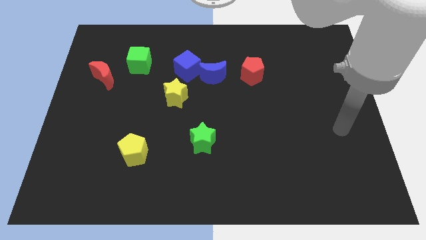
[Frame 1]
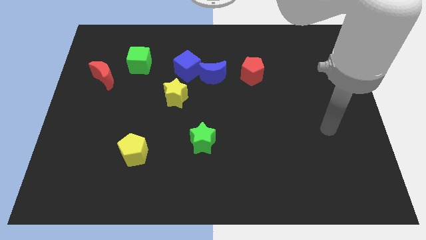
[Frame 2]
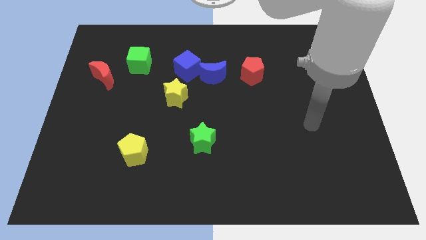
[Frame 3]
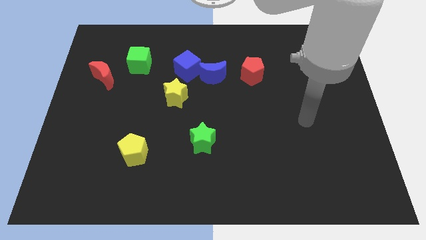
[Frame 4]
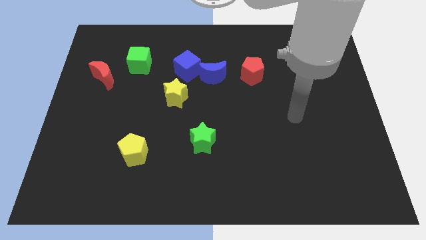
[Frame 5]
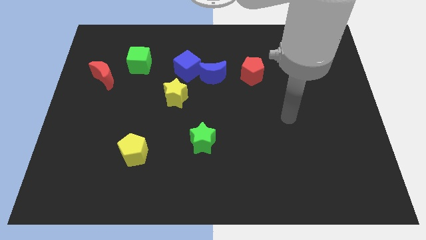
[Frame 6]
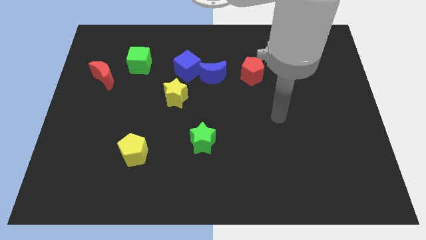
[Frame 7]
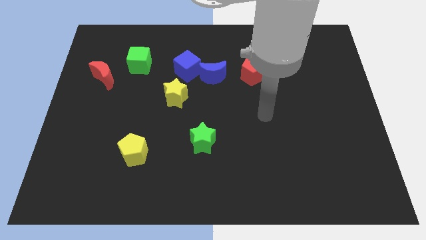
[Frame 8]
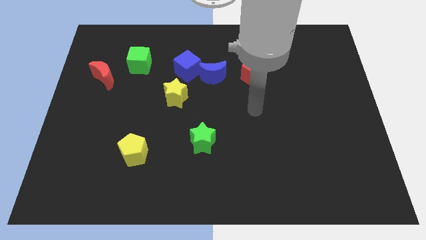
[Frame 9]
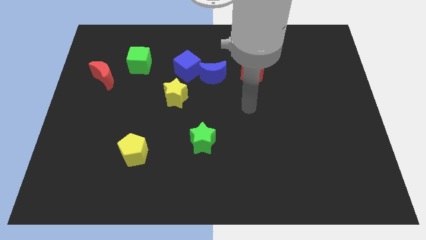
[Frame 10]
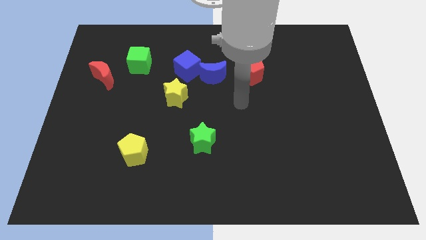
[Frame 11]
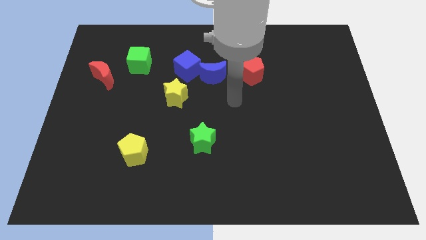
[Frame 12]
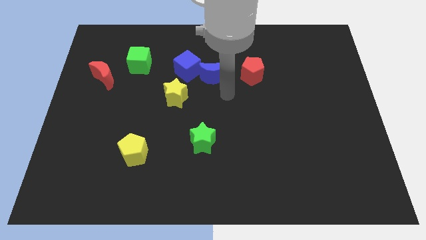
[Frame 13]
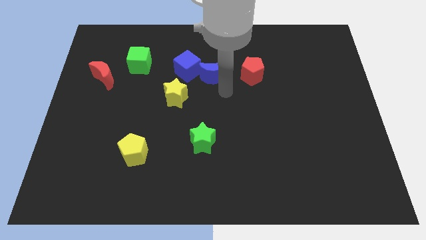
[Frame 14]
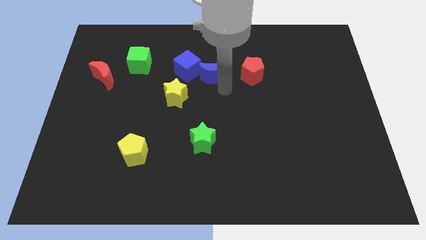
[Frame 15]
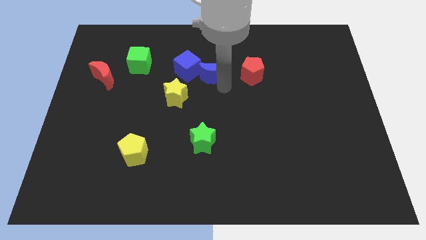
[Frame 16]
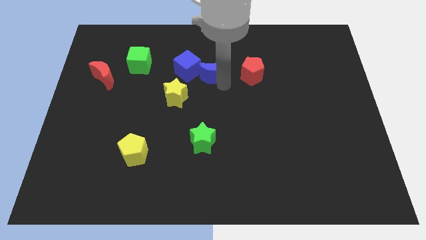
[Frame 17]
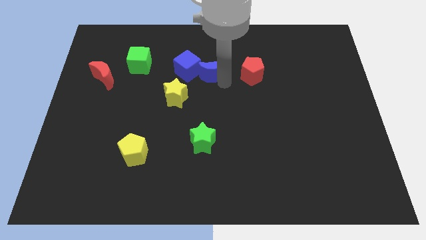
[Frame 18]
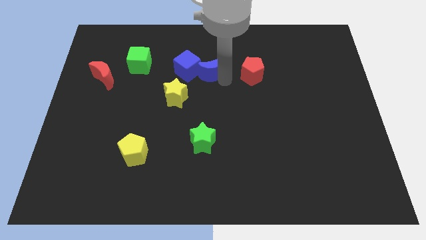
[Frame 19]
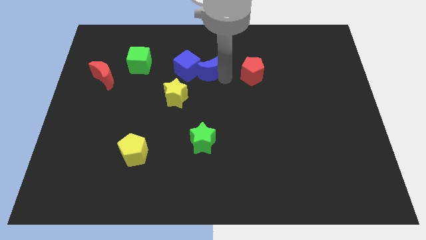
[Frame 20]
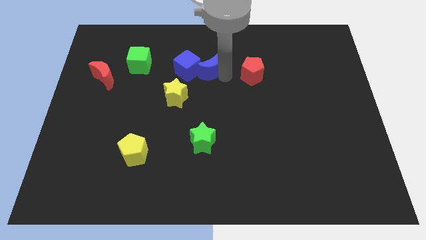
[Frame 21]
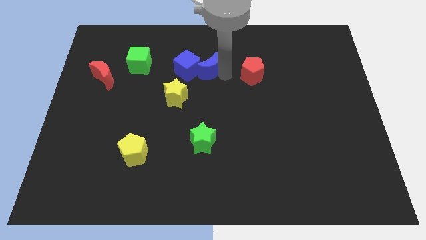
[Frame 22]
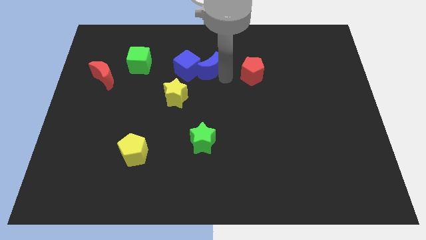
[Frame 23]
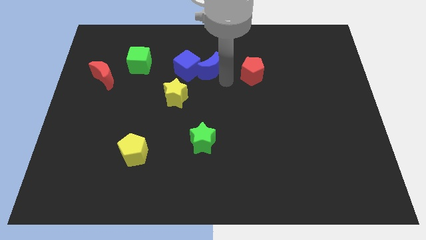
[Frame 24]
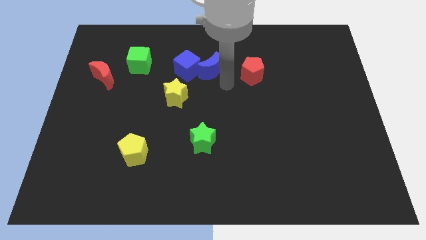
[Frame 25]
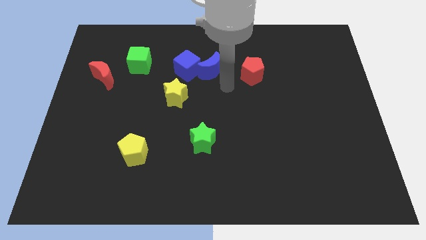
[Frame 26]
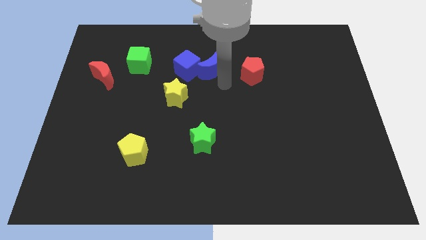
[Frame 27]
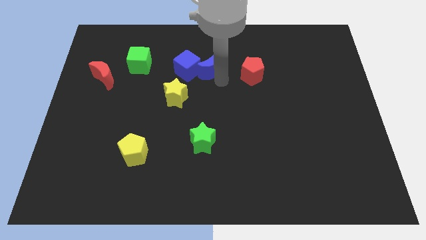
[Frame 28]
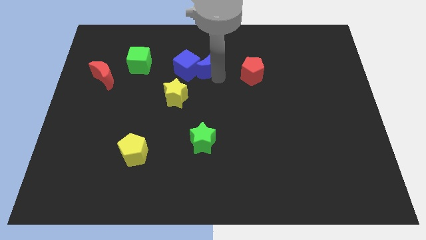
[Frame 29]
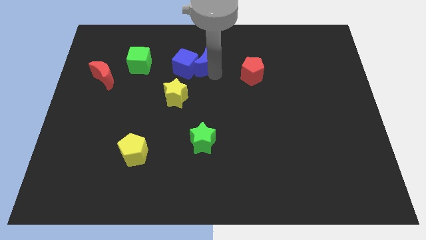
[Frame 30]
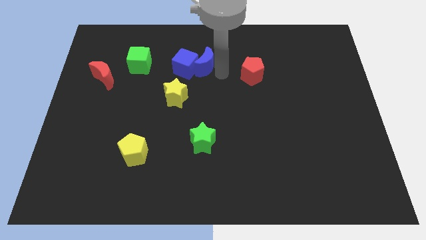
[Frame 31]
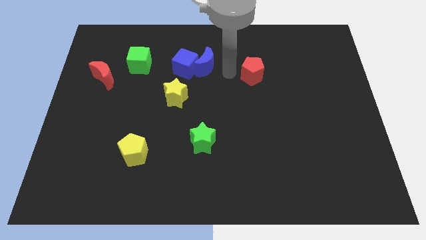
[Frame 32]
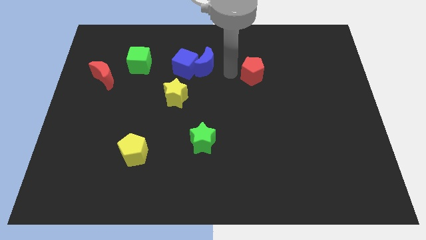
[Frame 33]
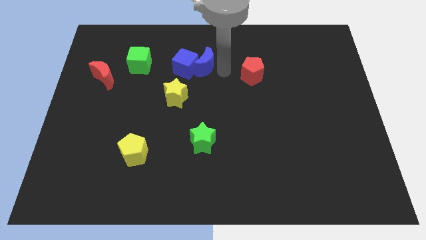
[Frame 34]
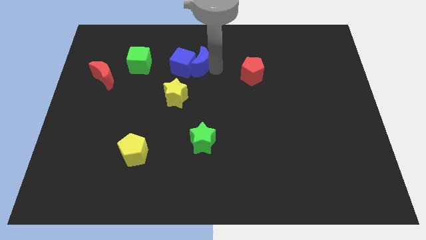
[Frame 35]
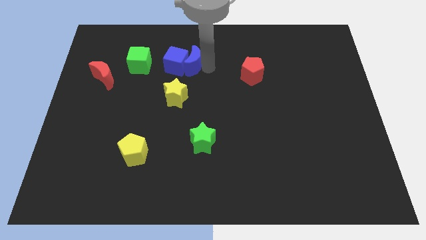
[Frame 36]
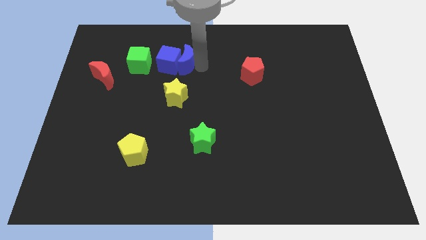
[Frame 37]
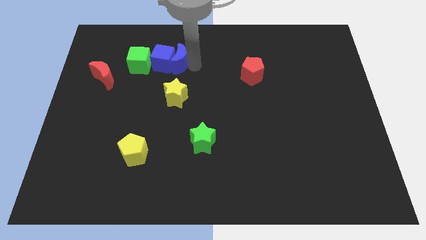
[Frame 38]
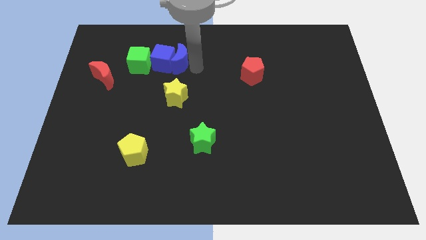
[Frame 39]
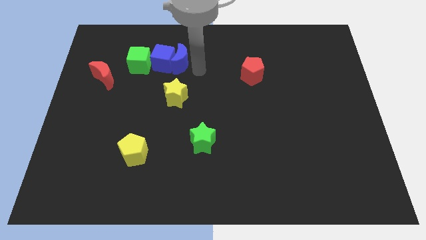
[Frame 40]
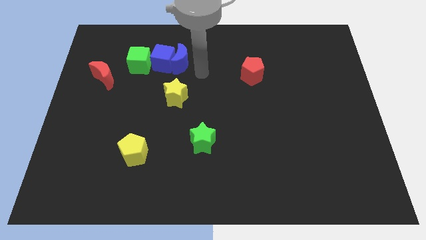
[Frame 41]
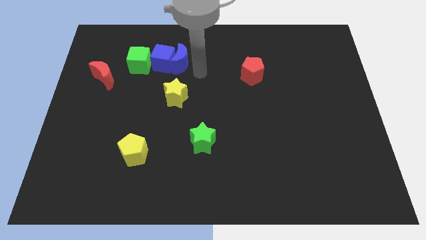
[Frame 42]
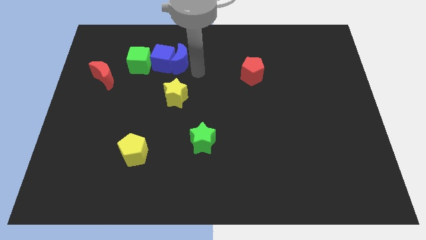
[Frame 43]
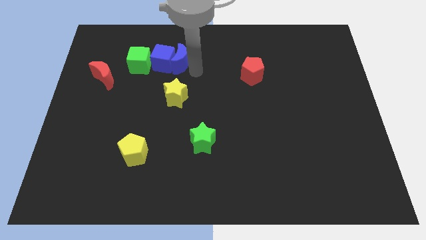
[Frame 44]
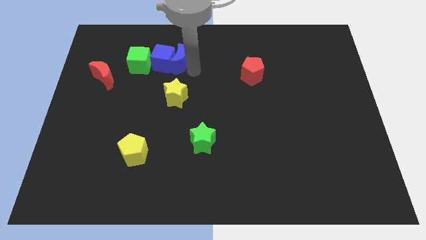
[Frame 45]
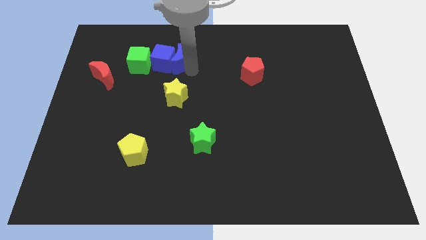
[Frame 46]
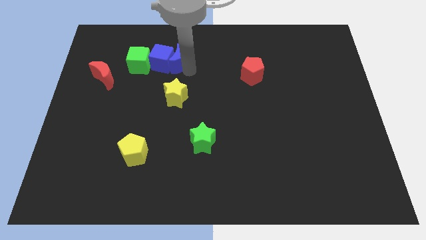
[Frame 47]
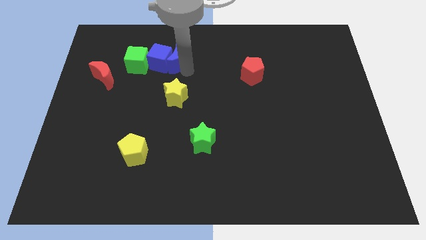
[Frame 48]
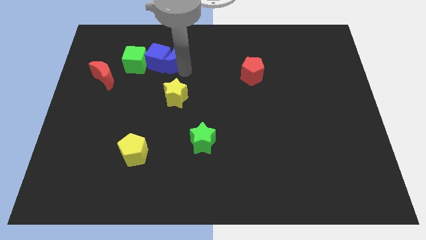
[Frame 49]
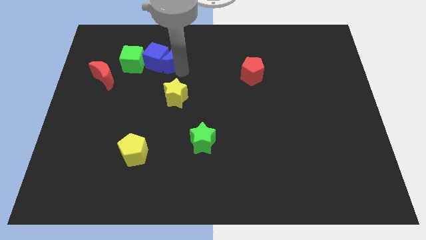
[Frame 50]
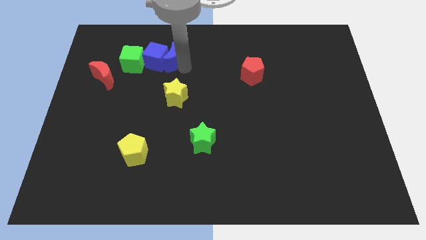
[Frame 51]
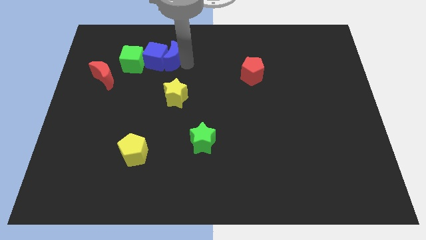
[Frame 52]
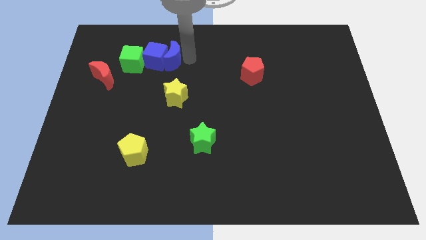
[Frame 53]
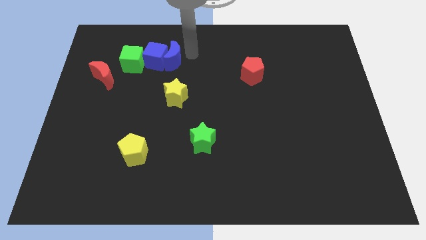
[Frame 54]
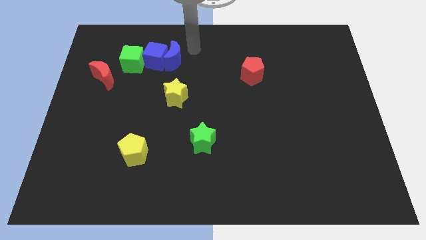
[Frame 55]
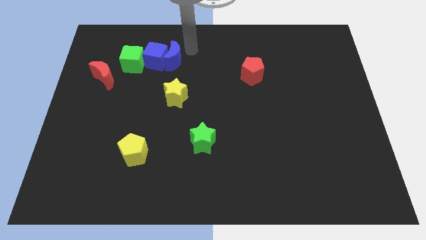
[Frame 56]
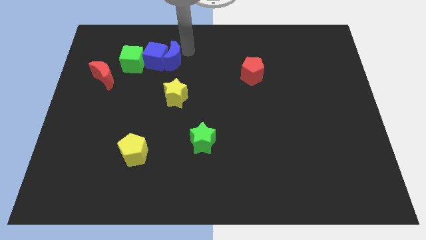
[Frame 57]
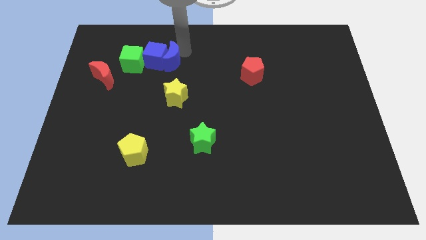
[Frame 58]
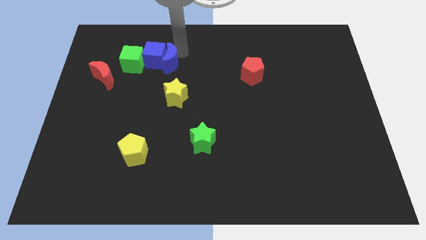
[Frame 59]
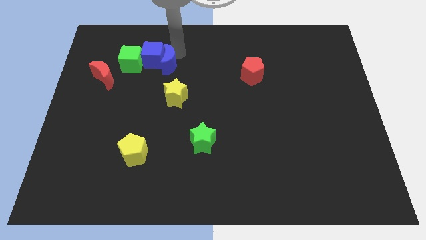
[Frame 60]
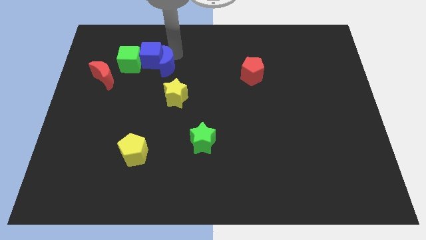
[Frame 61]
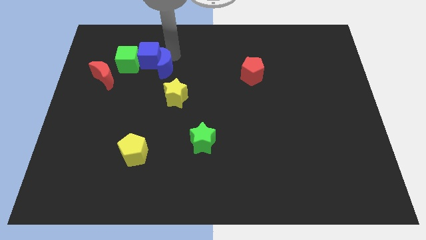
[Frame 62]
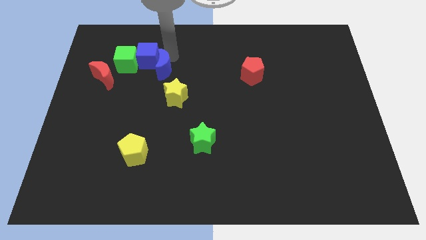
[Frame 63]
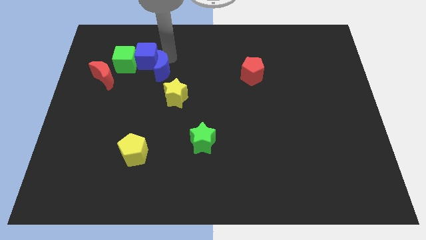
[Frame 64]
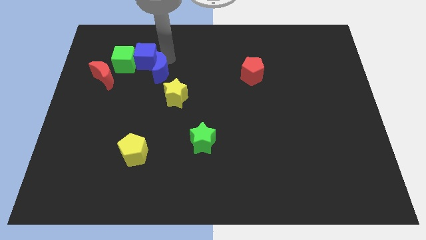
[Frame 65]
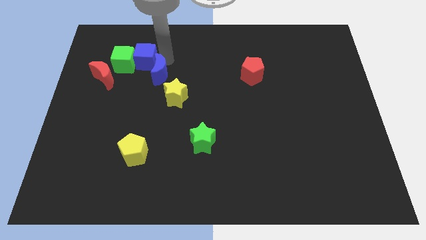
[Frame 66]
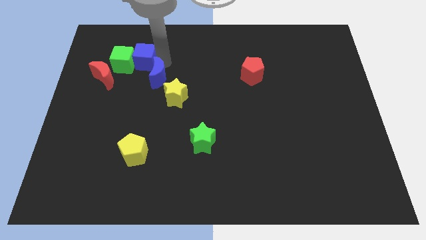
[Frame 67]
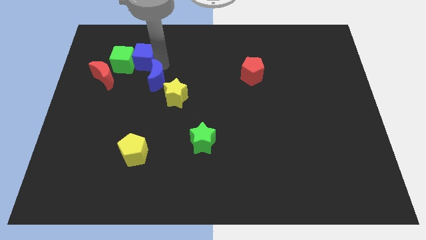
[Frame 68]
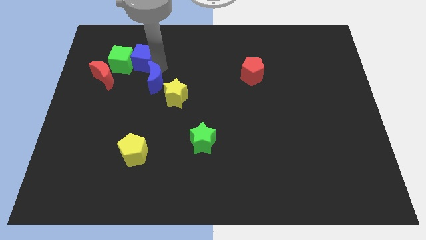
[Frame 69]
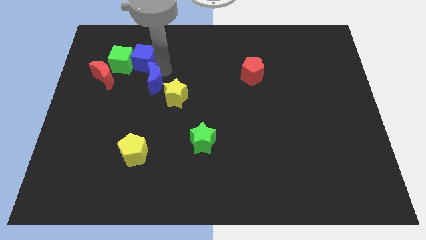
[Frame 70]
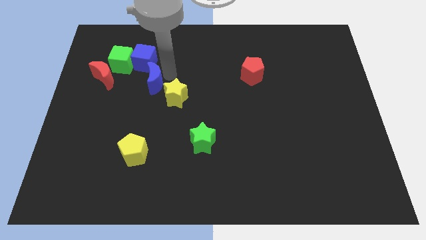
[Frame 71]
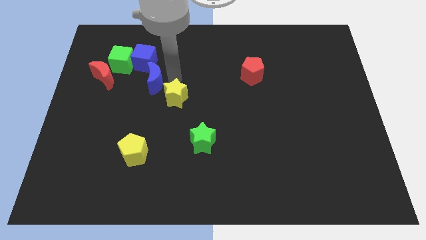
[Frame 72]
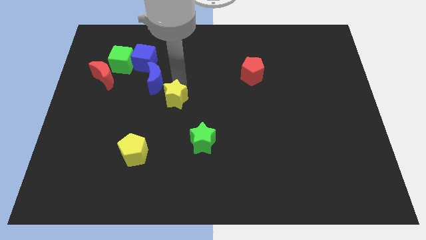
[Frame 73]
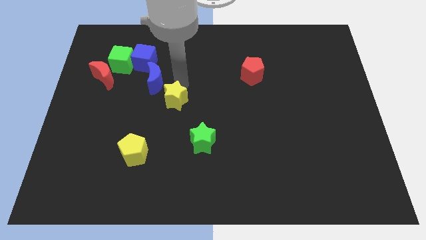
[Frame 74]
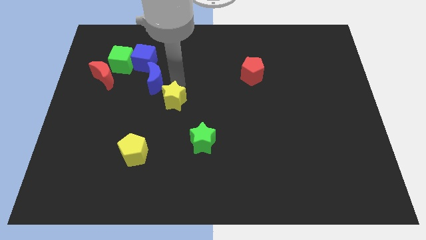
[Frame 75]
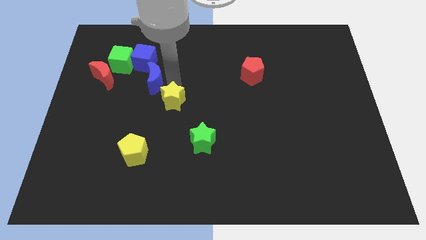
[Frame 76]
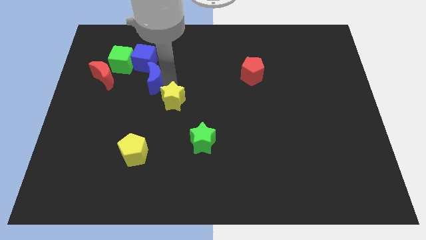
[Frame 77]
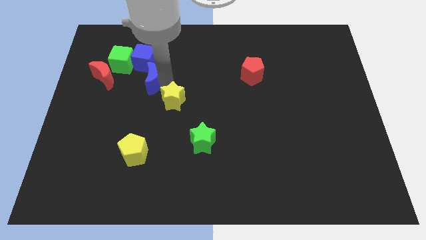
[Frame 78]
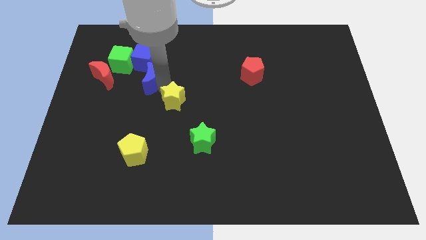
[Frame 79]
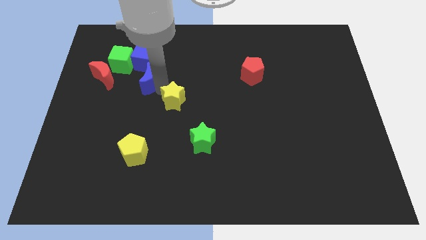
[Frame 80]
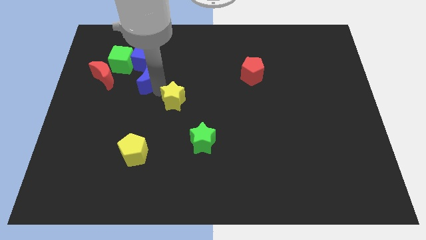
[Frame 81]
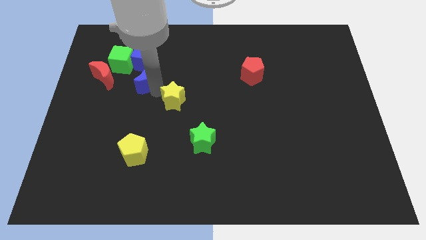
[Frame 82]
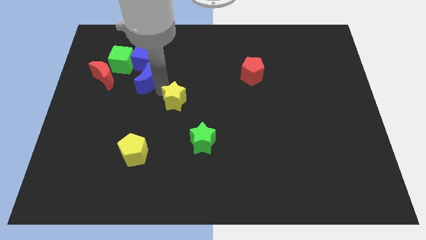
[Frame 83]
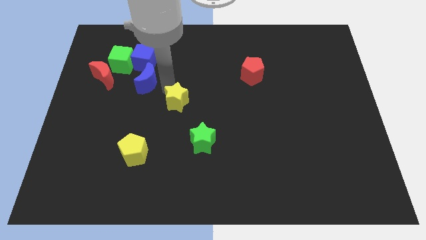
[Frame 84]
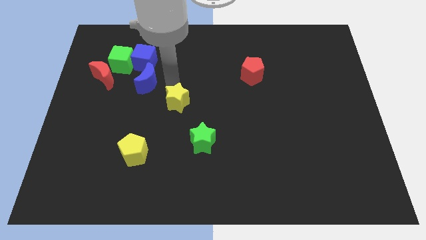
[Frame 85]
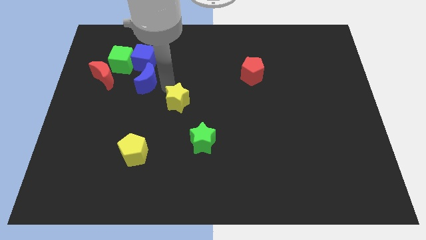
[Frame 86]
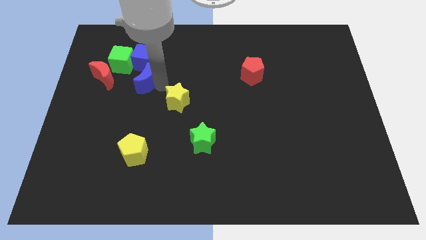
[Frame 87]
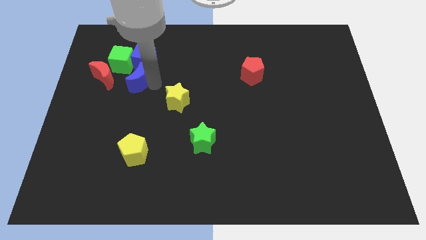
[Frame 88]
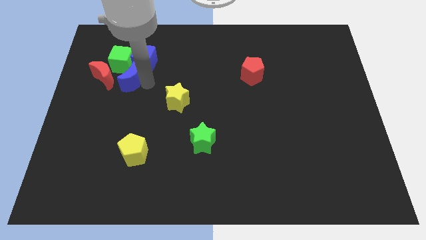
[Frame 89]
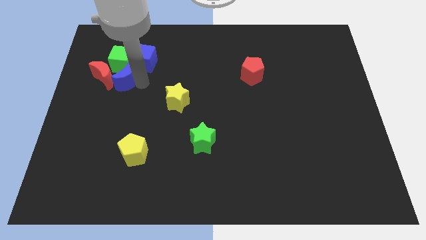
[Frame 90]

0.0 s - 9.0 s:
put the blue moon close to the red moon
